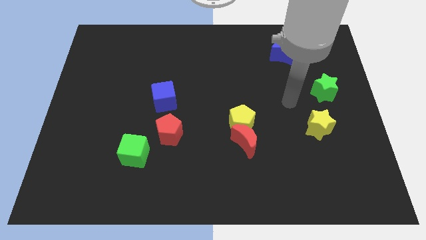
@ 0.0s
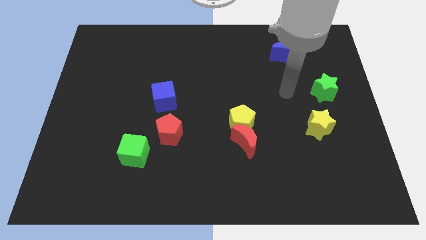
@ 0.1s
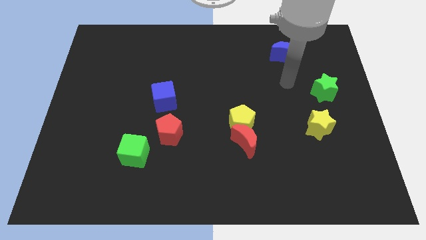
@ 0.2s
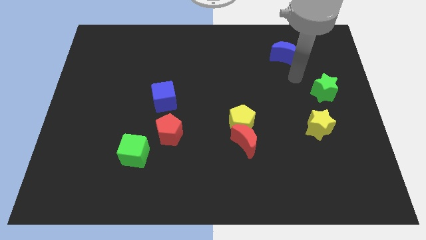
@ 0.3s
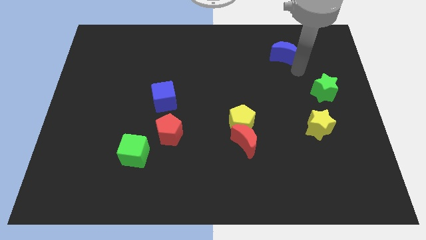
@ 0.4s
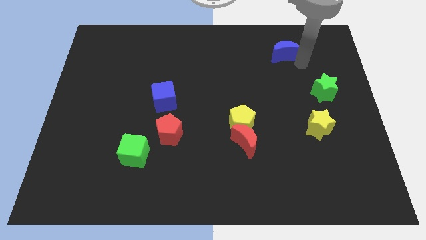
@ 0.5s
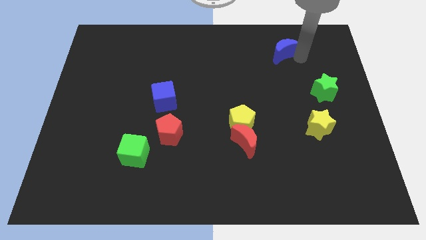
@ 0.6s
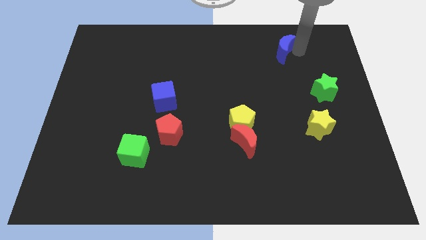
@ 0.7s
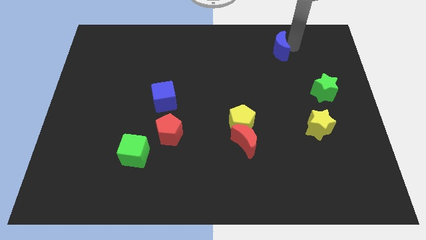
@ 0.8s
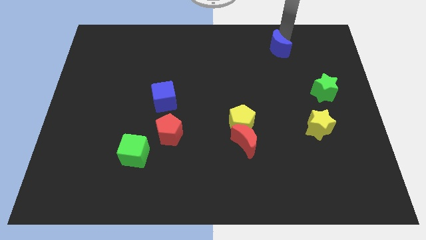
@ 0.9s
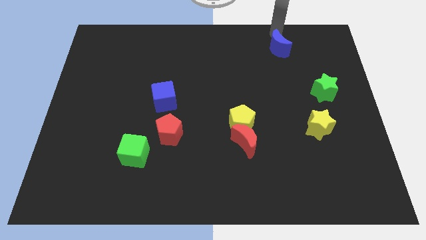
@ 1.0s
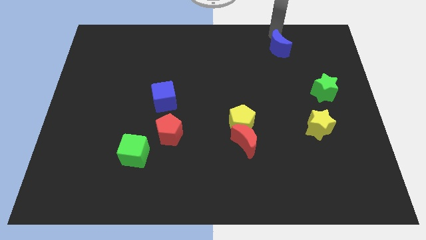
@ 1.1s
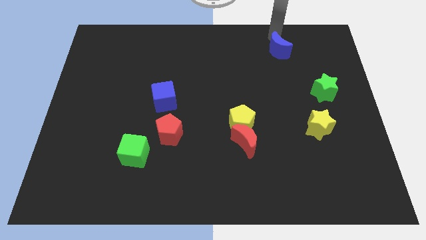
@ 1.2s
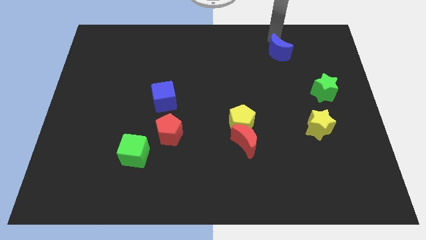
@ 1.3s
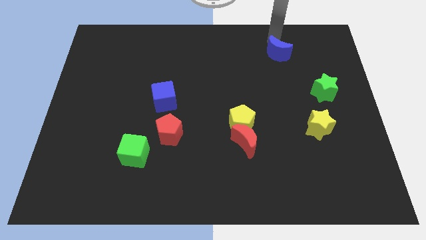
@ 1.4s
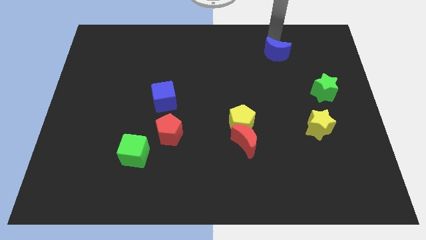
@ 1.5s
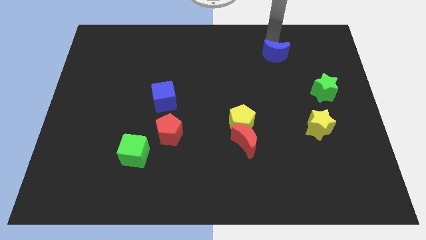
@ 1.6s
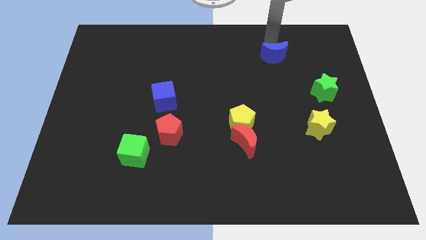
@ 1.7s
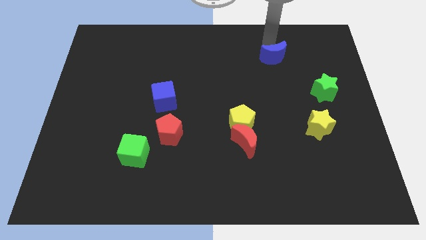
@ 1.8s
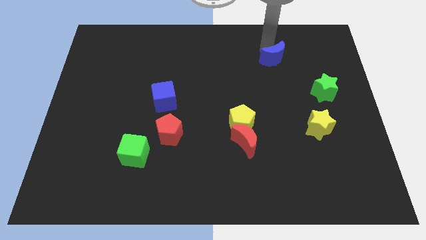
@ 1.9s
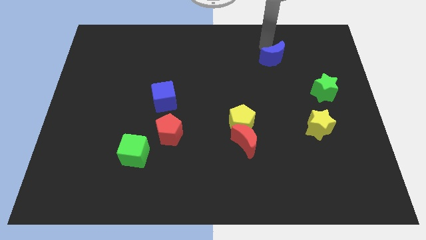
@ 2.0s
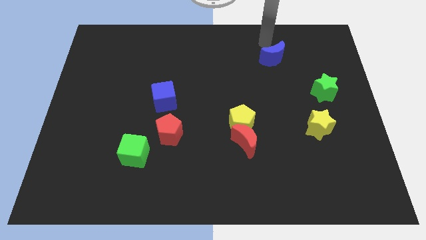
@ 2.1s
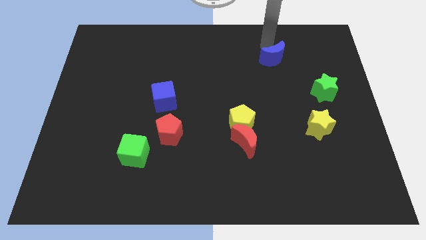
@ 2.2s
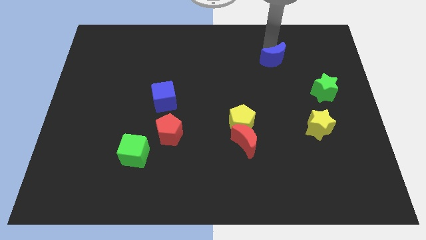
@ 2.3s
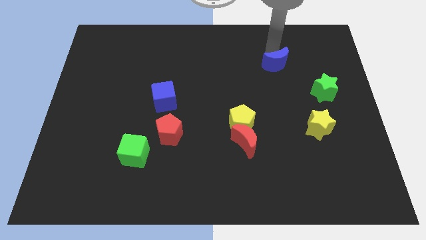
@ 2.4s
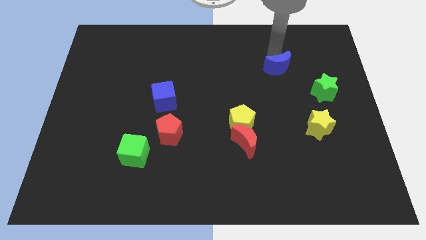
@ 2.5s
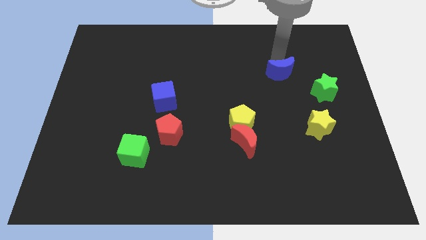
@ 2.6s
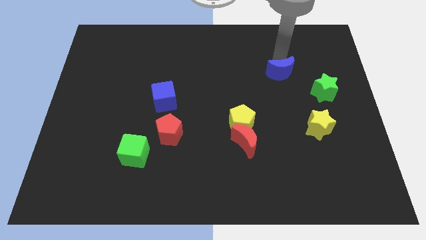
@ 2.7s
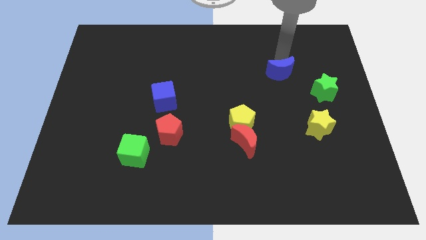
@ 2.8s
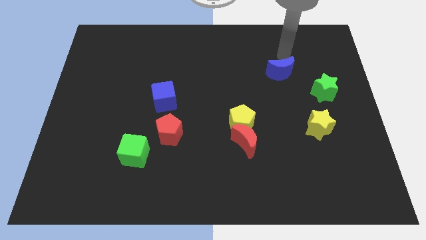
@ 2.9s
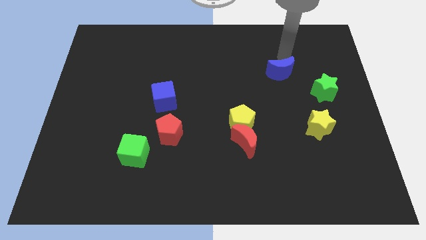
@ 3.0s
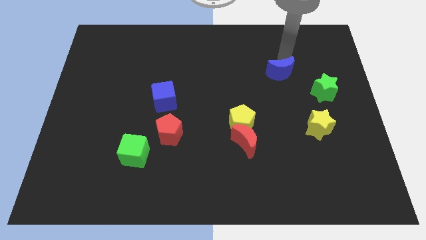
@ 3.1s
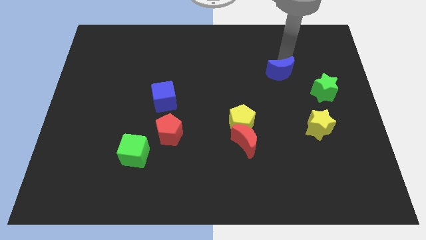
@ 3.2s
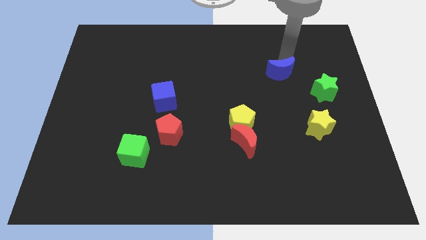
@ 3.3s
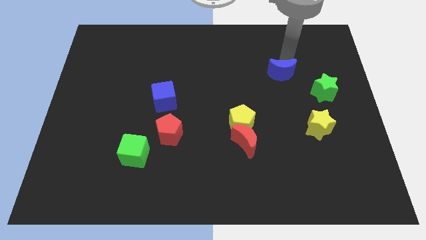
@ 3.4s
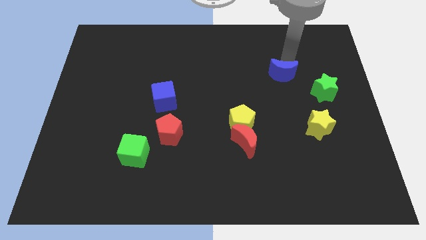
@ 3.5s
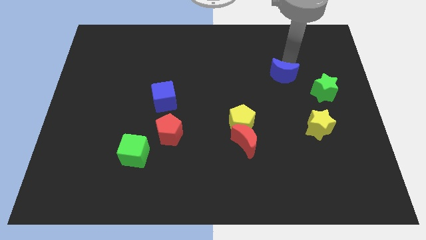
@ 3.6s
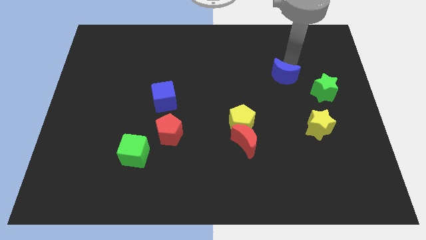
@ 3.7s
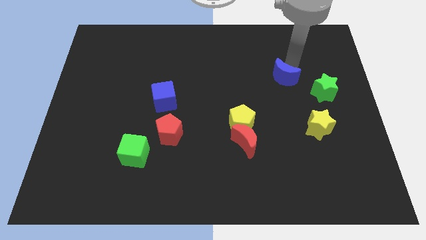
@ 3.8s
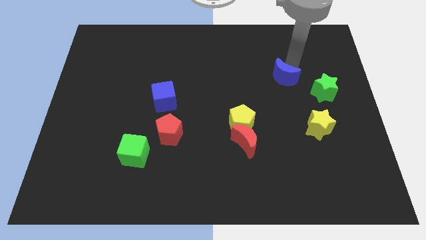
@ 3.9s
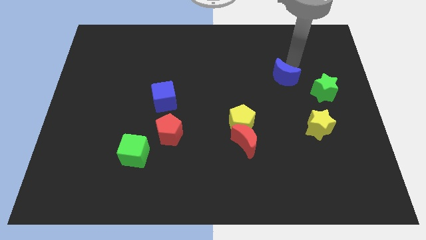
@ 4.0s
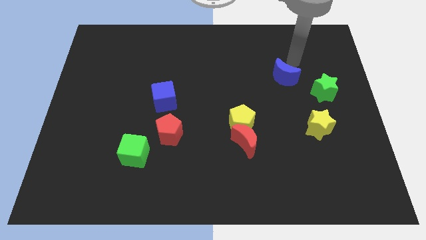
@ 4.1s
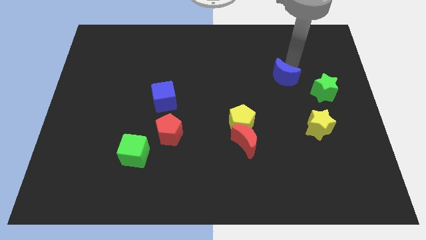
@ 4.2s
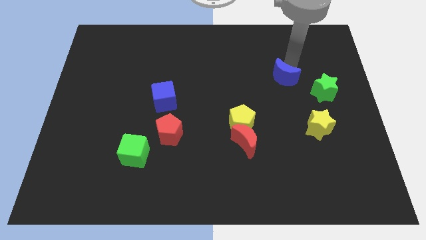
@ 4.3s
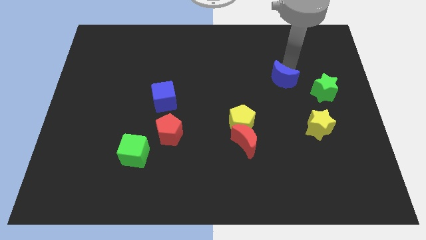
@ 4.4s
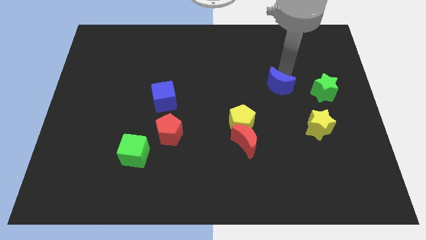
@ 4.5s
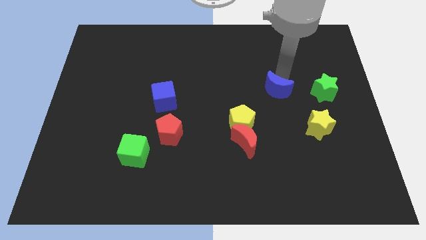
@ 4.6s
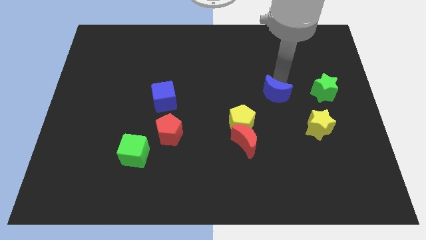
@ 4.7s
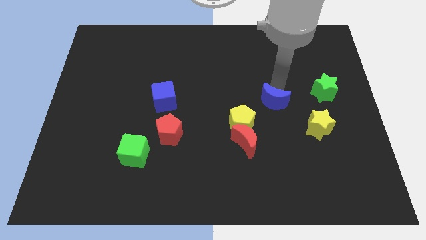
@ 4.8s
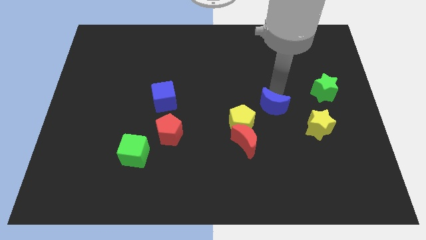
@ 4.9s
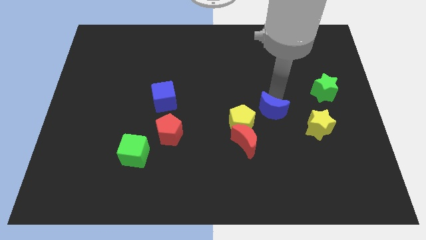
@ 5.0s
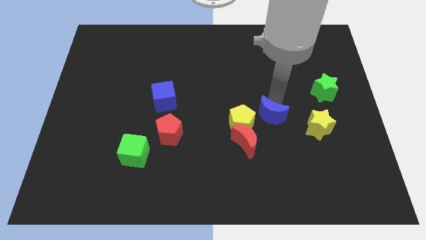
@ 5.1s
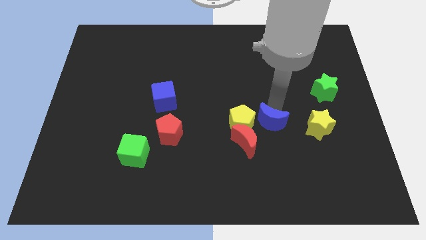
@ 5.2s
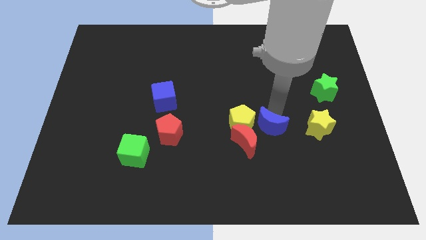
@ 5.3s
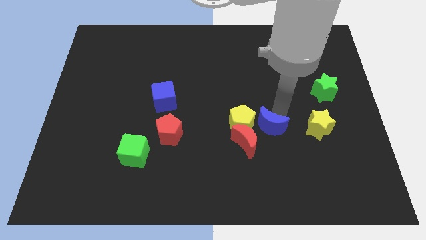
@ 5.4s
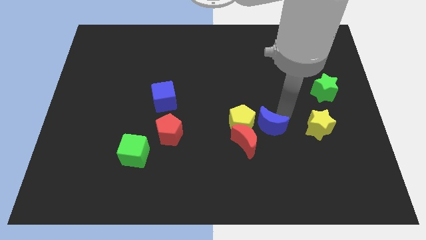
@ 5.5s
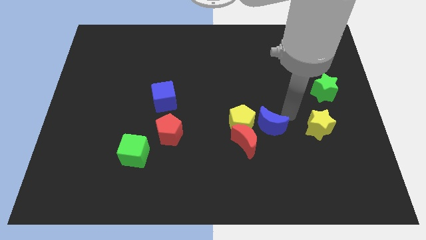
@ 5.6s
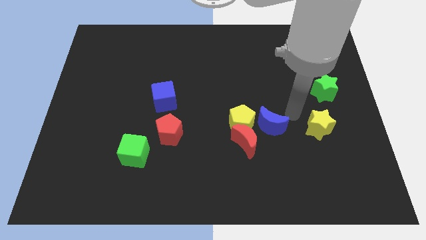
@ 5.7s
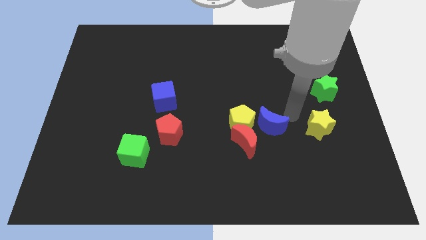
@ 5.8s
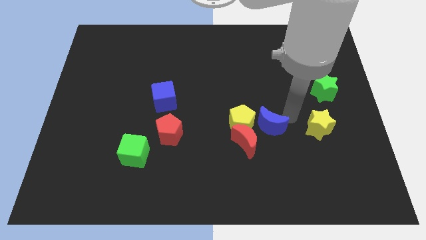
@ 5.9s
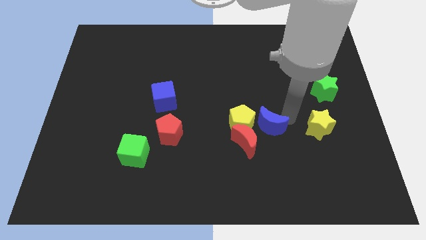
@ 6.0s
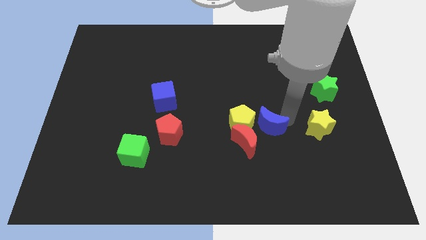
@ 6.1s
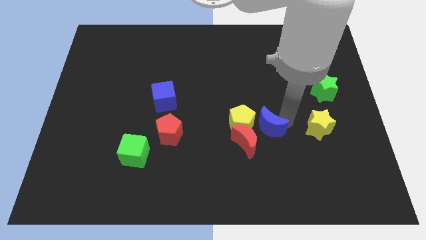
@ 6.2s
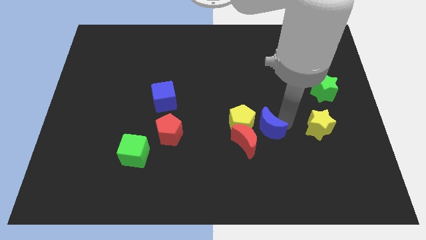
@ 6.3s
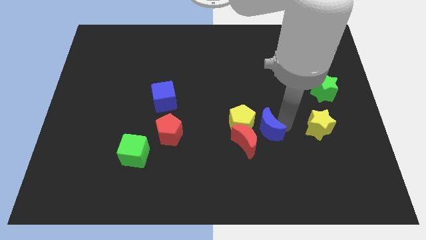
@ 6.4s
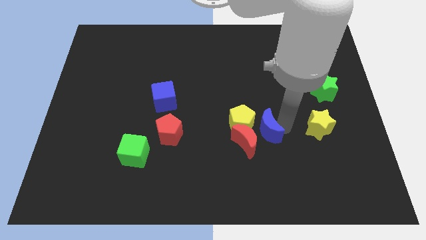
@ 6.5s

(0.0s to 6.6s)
move the blue moon to the red moon
